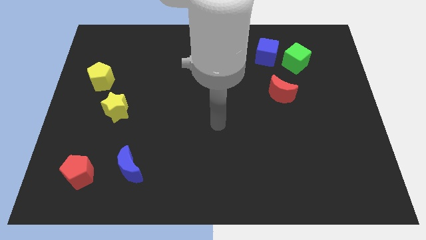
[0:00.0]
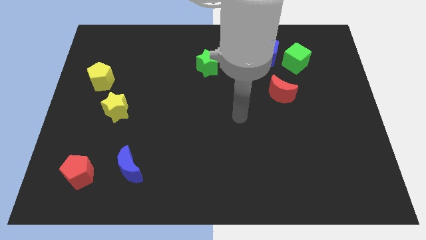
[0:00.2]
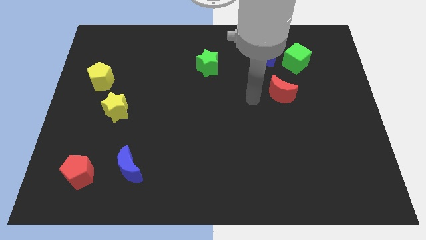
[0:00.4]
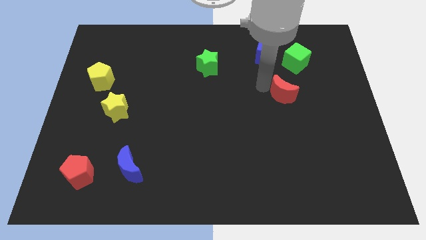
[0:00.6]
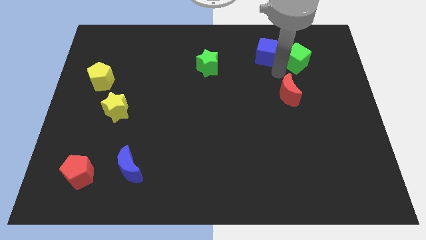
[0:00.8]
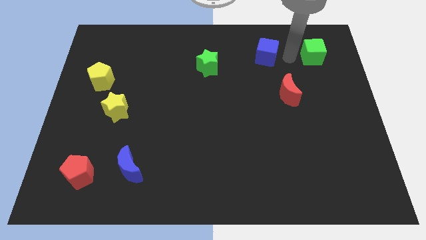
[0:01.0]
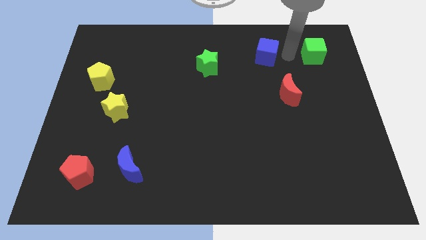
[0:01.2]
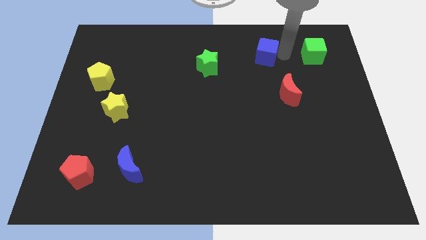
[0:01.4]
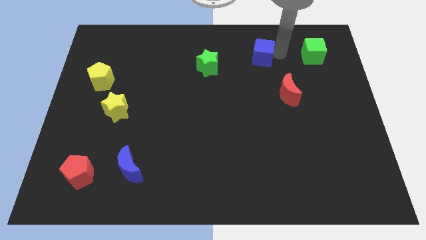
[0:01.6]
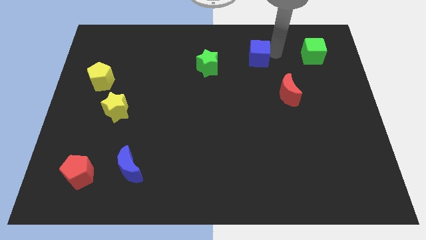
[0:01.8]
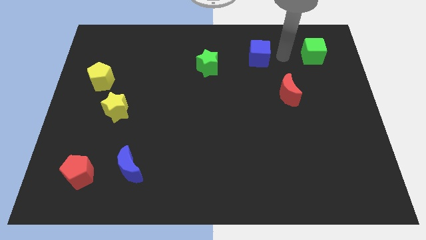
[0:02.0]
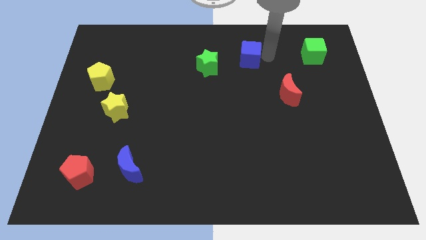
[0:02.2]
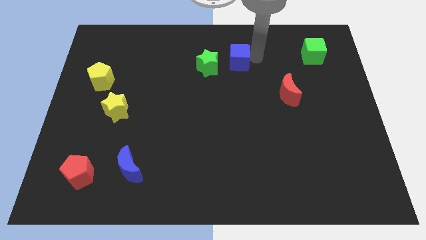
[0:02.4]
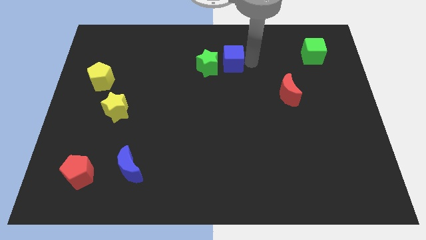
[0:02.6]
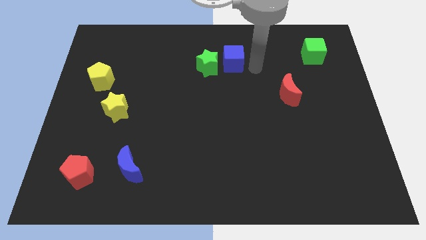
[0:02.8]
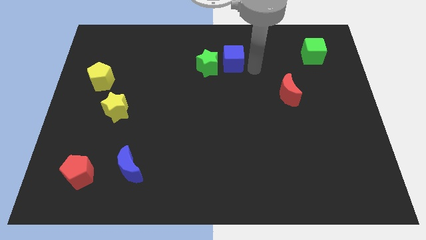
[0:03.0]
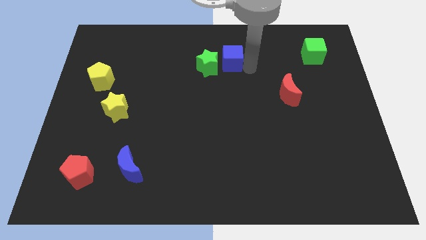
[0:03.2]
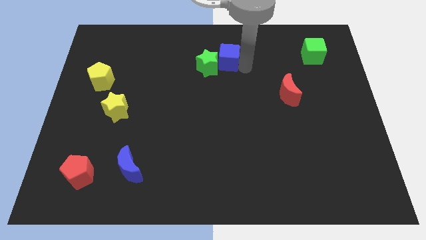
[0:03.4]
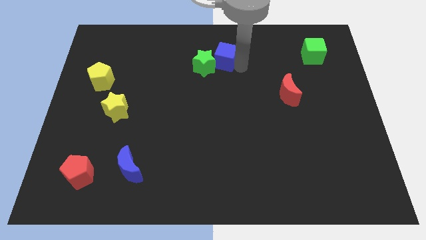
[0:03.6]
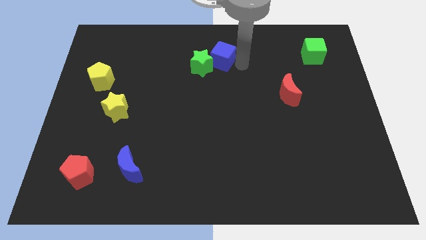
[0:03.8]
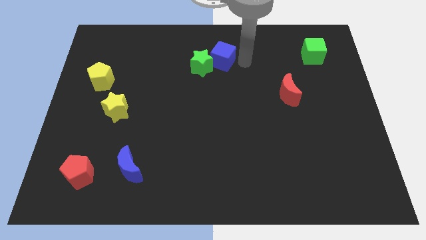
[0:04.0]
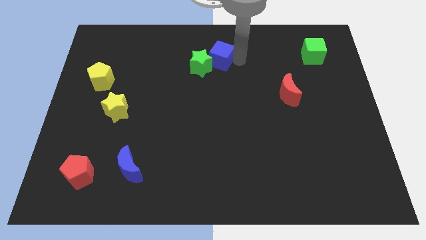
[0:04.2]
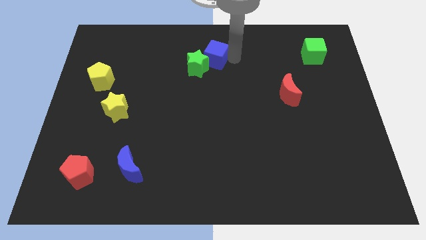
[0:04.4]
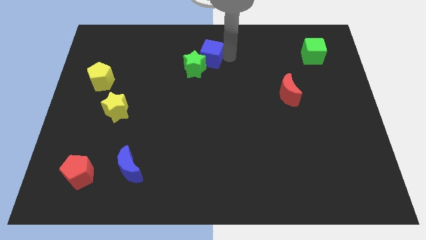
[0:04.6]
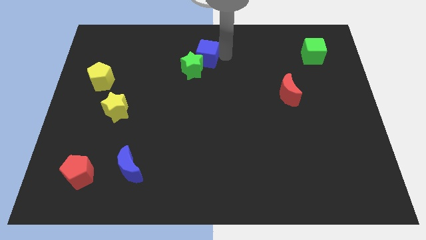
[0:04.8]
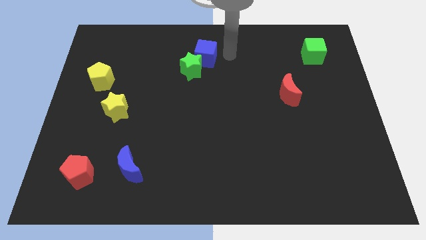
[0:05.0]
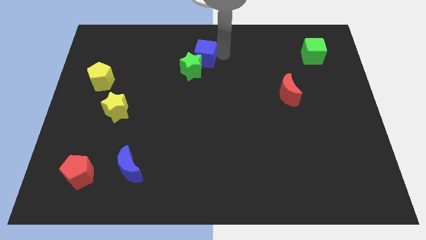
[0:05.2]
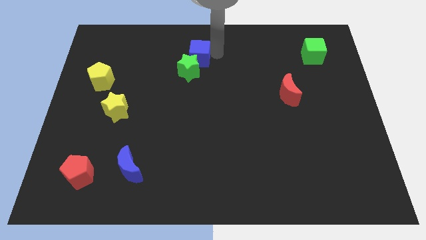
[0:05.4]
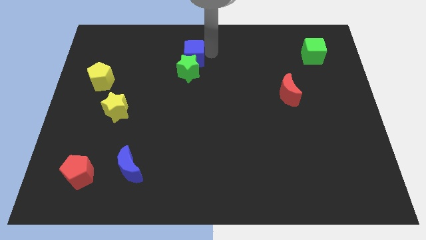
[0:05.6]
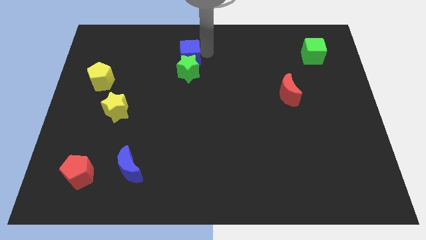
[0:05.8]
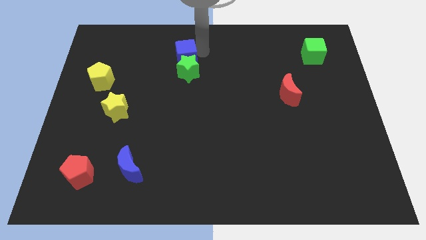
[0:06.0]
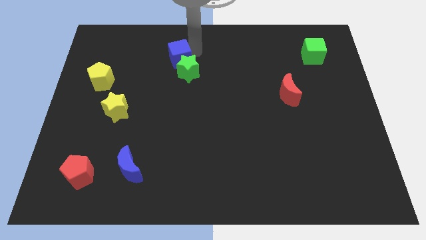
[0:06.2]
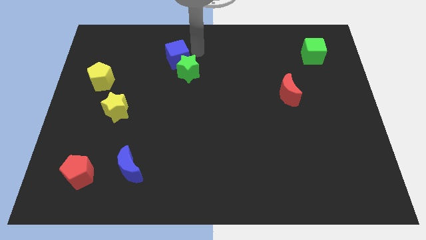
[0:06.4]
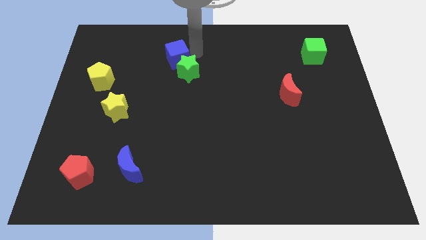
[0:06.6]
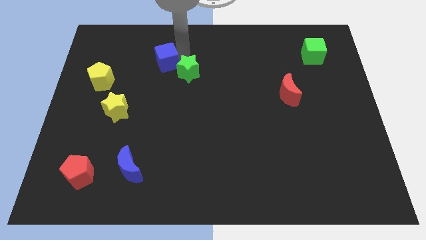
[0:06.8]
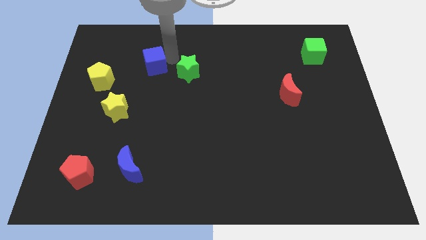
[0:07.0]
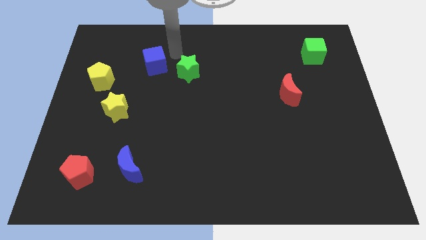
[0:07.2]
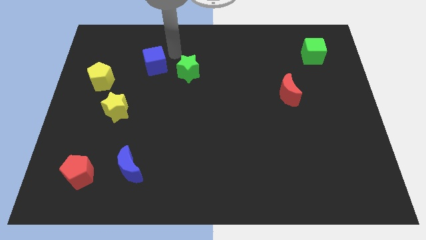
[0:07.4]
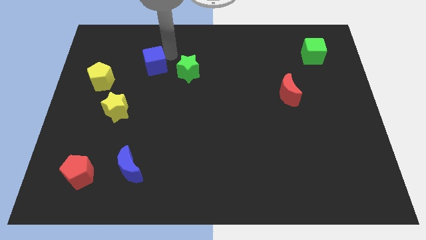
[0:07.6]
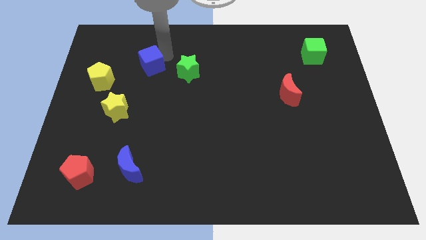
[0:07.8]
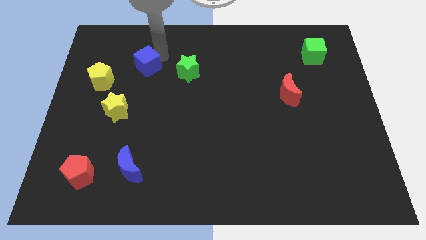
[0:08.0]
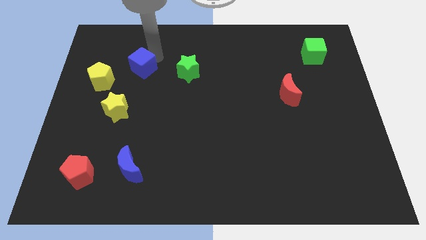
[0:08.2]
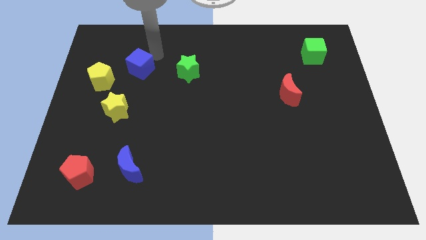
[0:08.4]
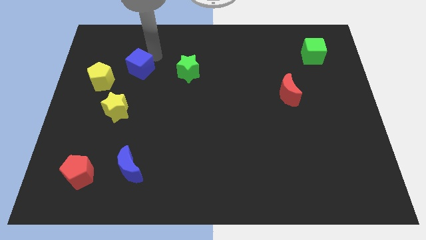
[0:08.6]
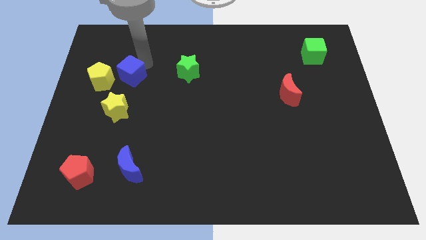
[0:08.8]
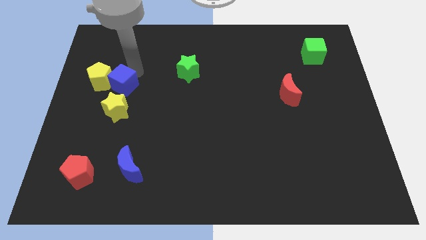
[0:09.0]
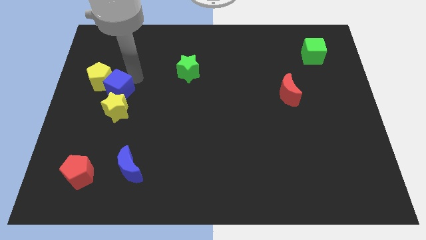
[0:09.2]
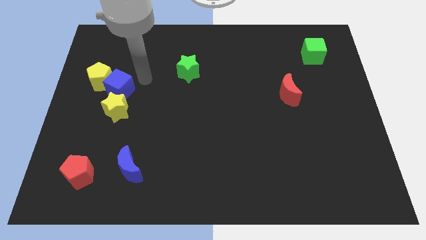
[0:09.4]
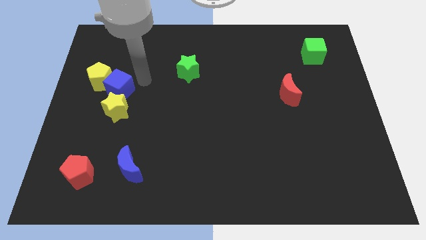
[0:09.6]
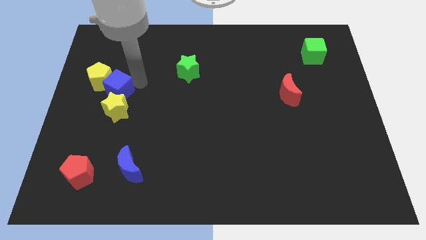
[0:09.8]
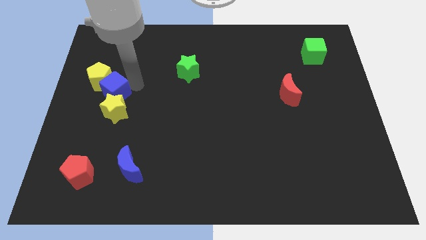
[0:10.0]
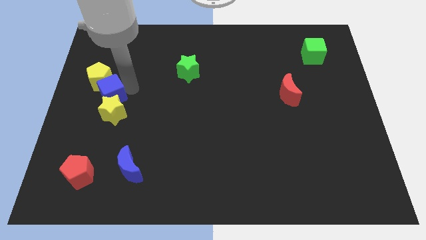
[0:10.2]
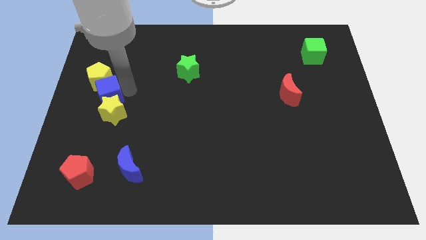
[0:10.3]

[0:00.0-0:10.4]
slide the blue cube to the left side
